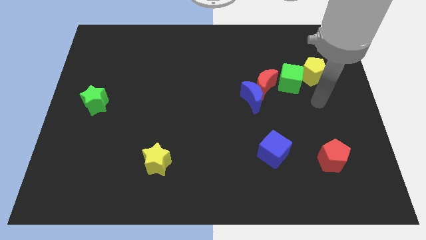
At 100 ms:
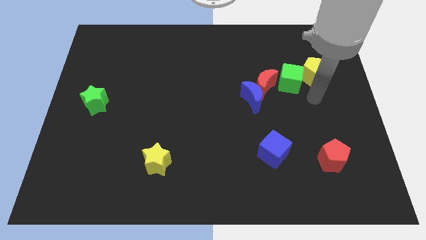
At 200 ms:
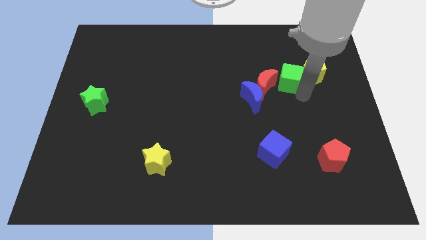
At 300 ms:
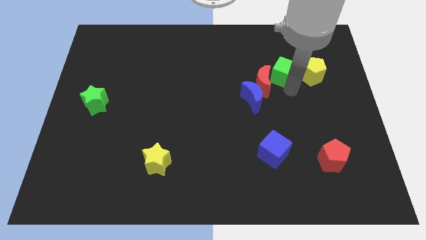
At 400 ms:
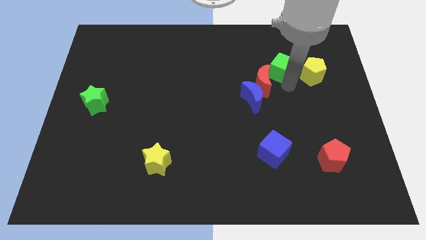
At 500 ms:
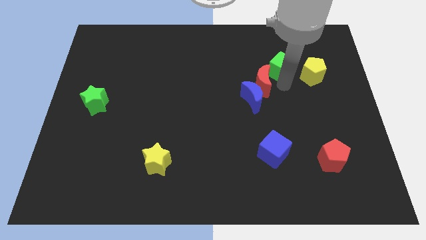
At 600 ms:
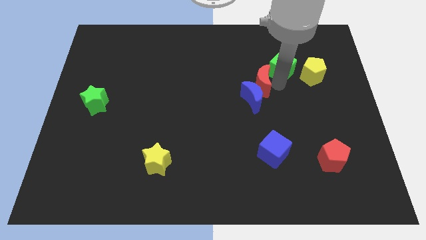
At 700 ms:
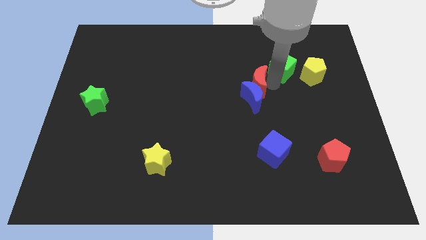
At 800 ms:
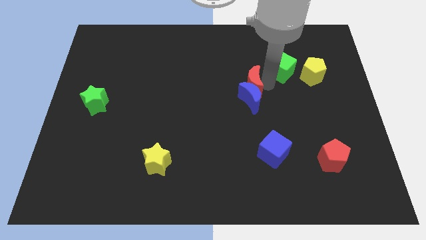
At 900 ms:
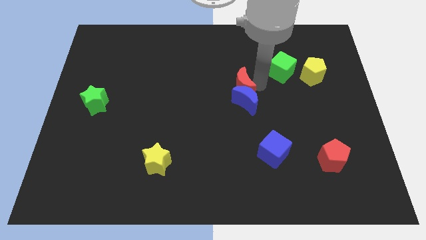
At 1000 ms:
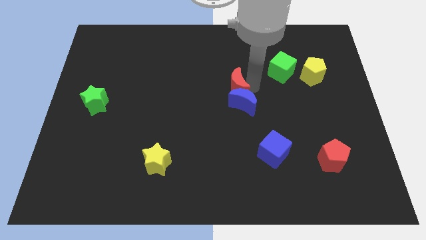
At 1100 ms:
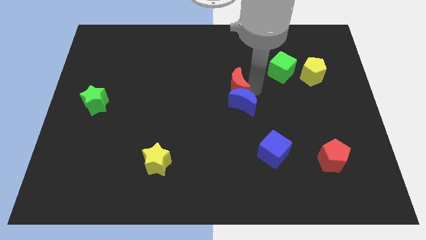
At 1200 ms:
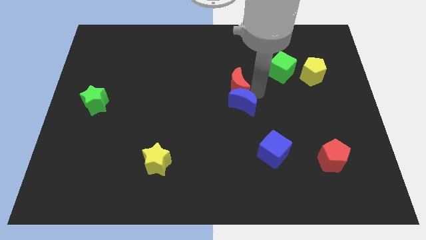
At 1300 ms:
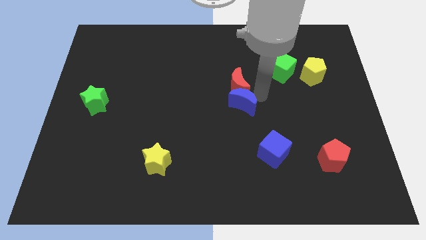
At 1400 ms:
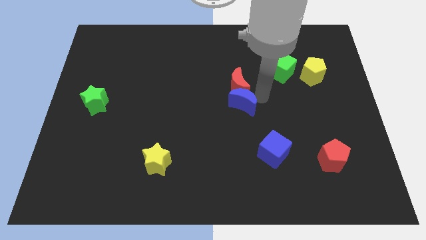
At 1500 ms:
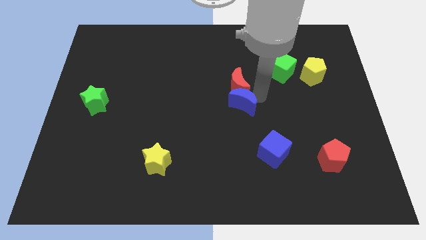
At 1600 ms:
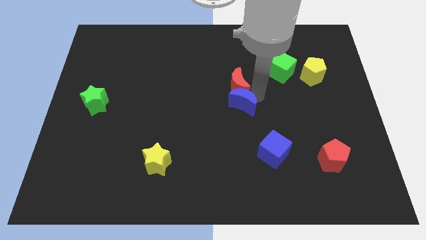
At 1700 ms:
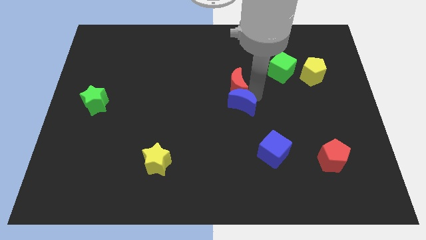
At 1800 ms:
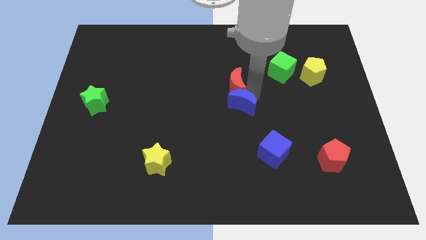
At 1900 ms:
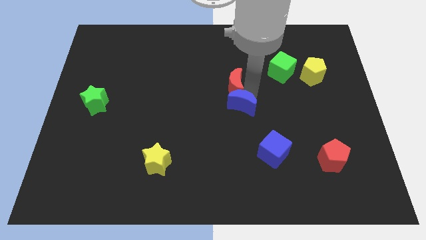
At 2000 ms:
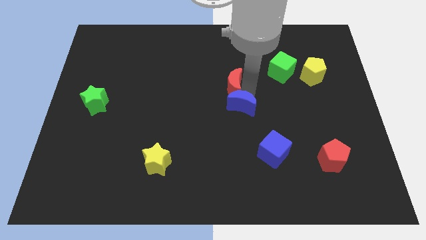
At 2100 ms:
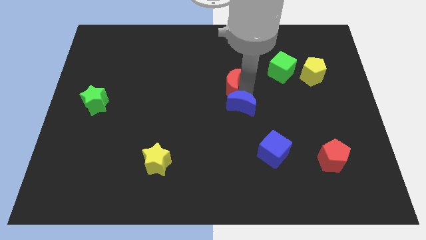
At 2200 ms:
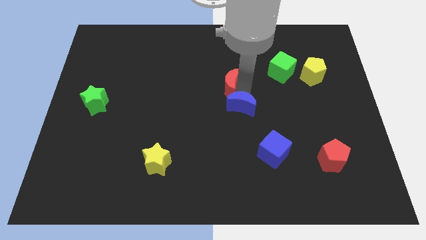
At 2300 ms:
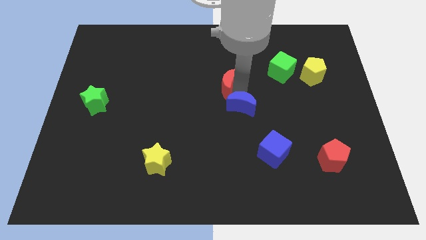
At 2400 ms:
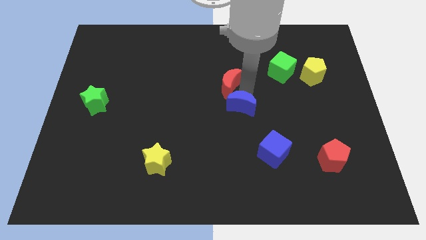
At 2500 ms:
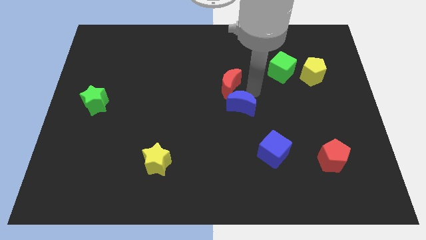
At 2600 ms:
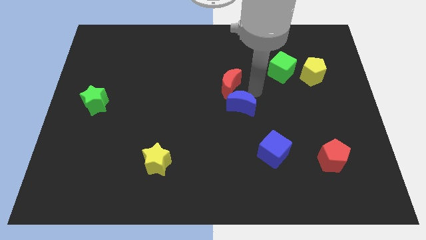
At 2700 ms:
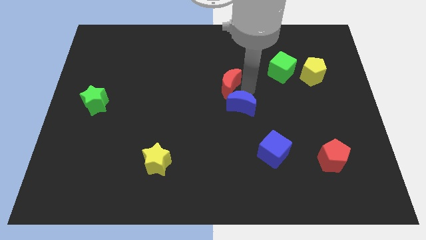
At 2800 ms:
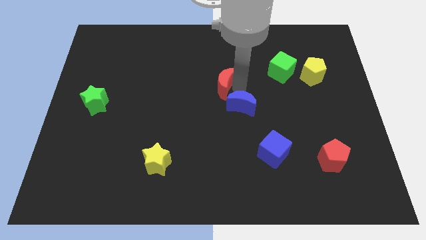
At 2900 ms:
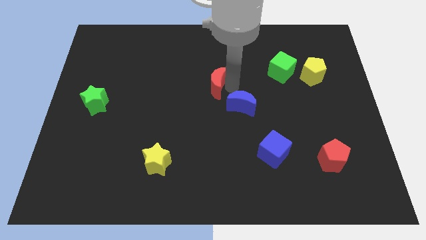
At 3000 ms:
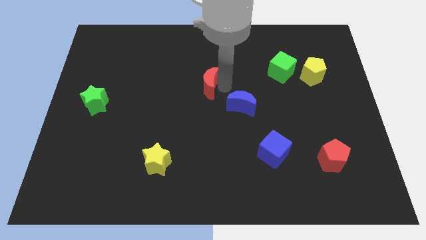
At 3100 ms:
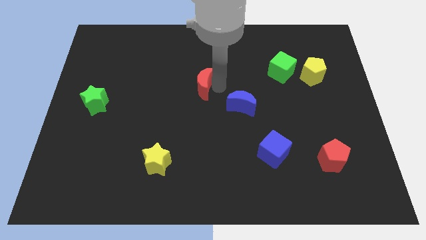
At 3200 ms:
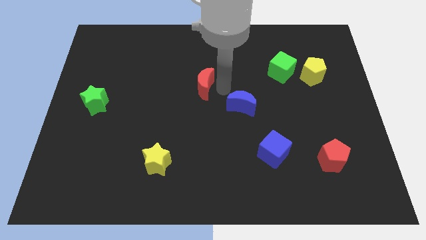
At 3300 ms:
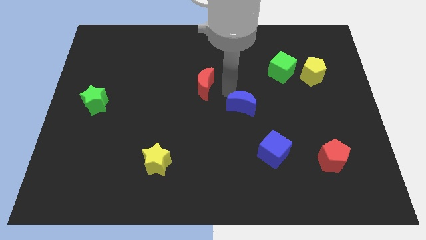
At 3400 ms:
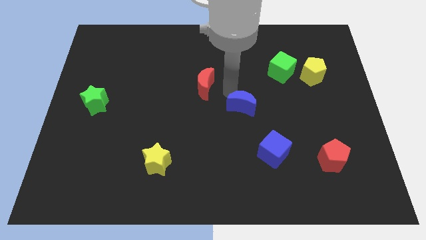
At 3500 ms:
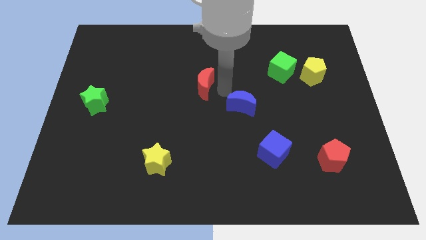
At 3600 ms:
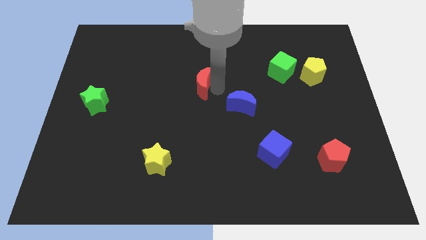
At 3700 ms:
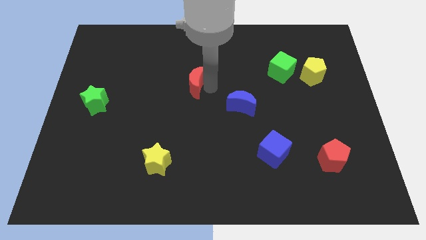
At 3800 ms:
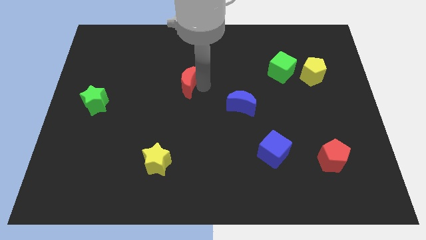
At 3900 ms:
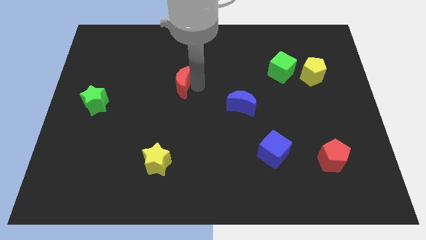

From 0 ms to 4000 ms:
push the red moon to the left

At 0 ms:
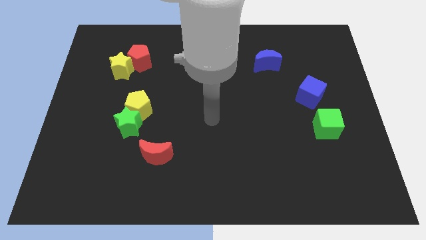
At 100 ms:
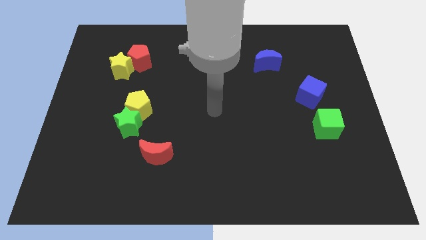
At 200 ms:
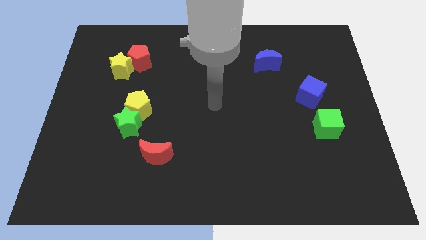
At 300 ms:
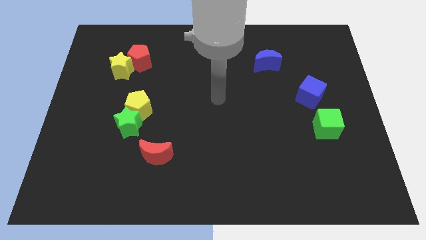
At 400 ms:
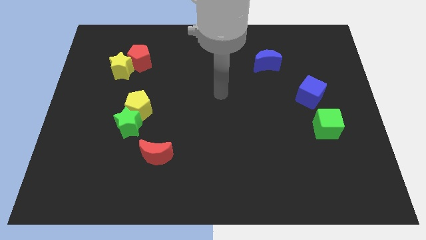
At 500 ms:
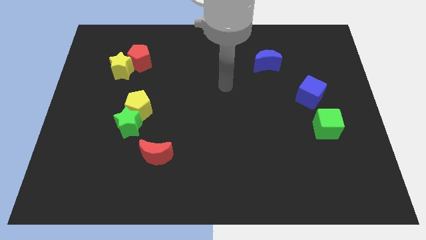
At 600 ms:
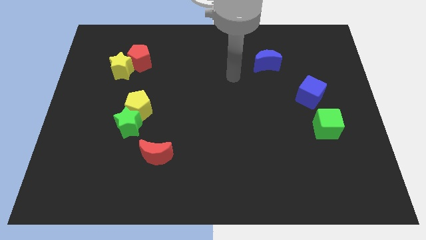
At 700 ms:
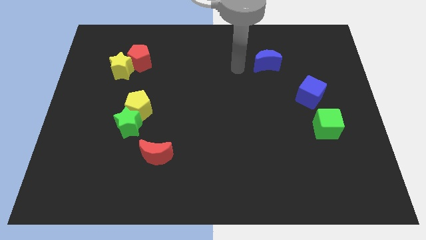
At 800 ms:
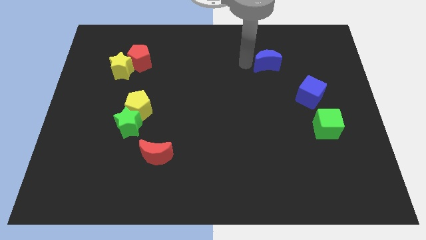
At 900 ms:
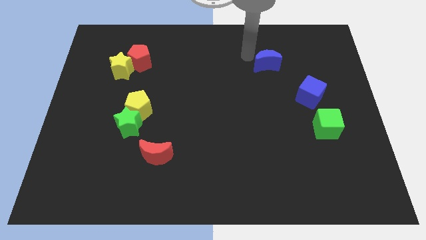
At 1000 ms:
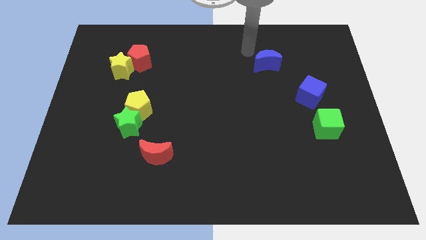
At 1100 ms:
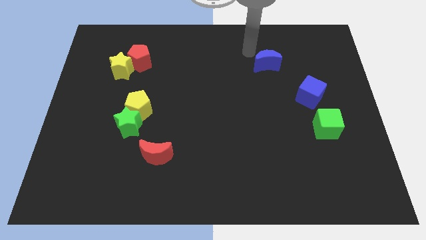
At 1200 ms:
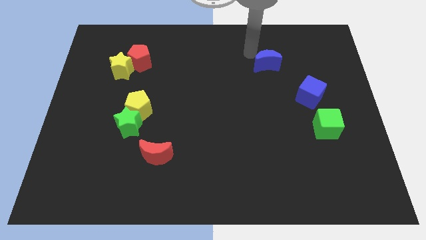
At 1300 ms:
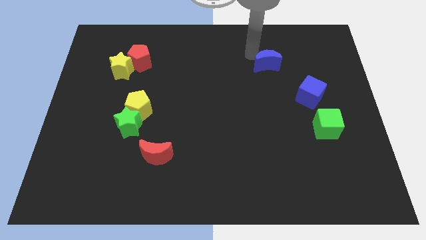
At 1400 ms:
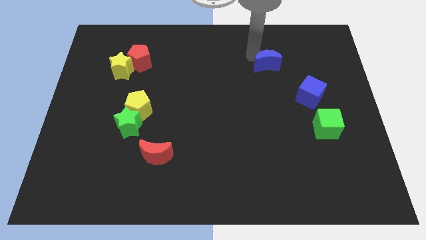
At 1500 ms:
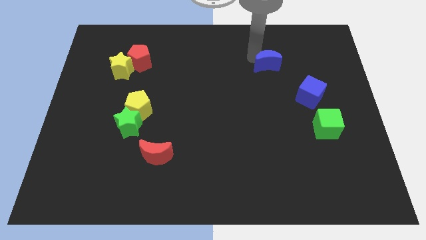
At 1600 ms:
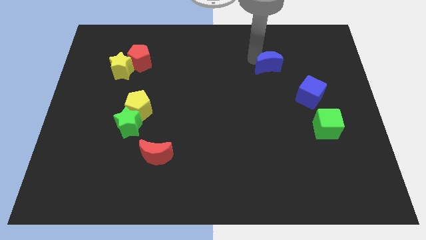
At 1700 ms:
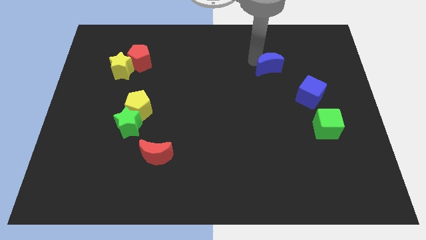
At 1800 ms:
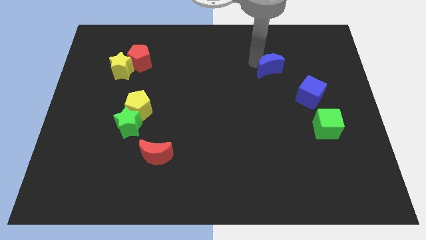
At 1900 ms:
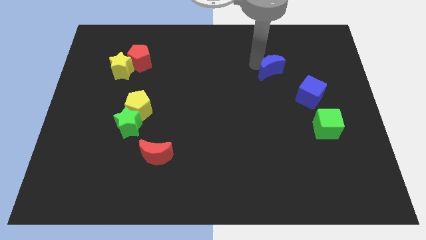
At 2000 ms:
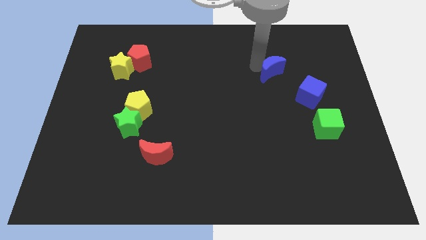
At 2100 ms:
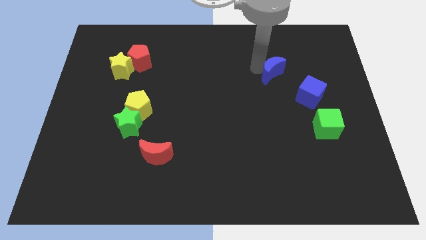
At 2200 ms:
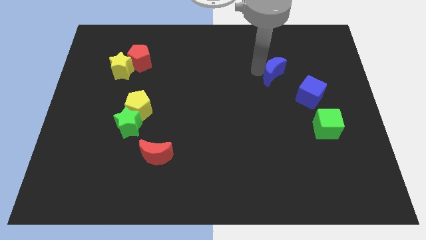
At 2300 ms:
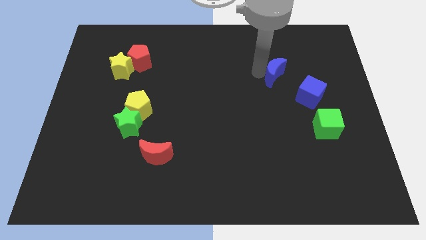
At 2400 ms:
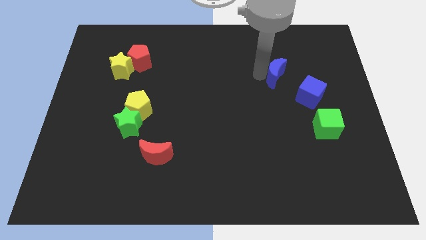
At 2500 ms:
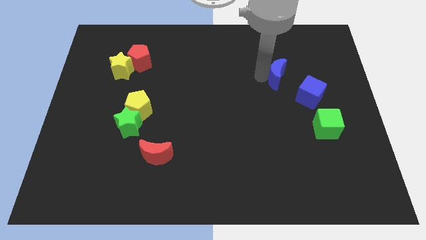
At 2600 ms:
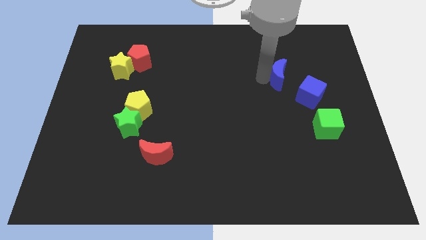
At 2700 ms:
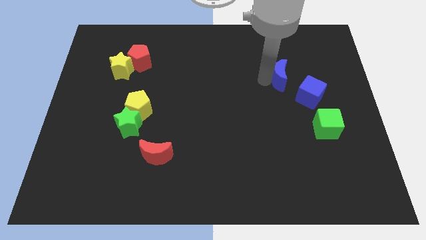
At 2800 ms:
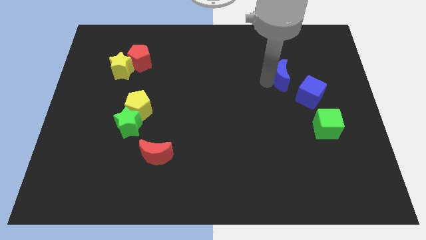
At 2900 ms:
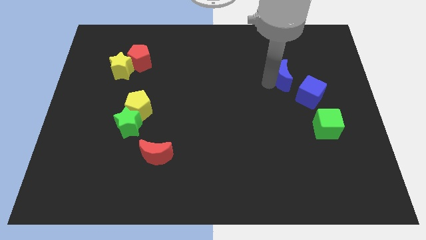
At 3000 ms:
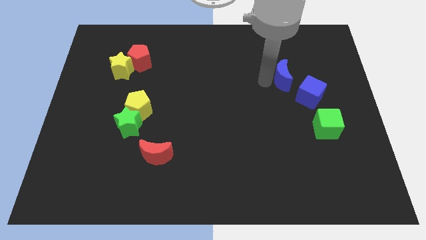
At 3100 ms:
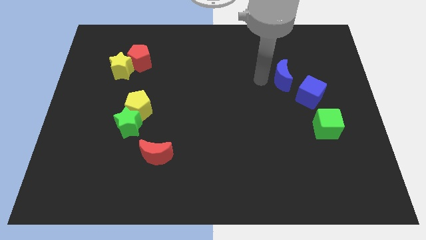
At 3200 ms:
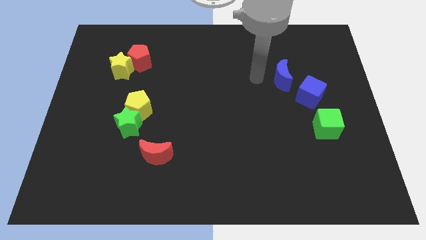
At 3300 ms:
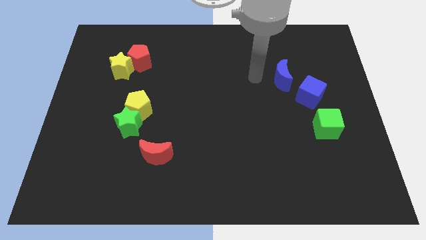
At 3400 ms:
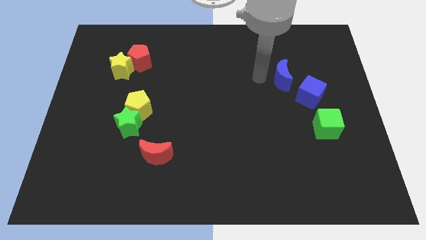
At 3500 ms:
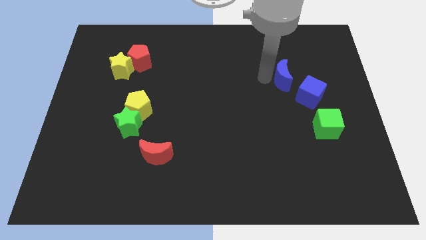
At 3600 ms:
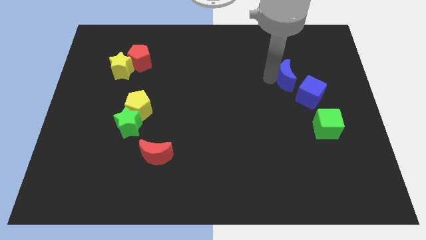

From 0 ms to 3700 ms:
move the blue moon a bit diagonally downwards and right
